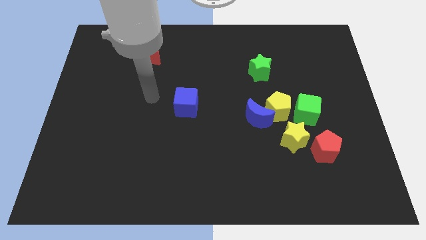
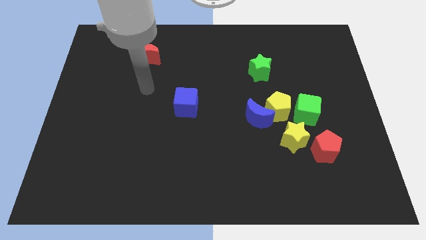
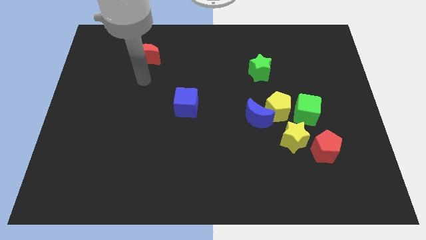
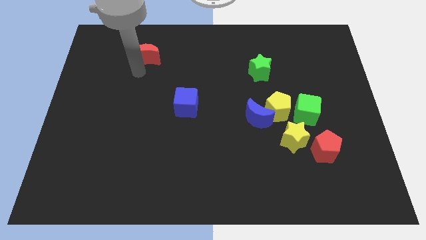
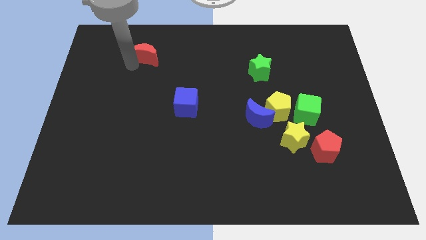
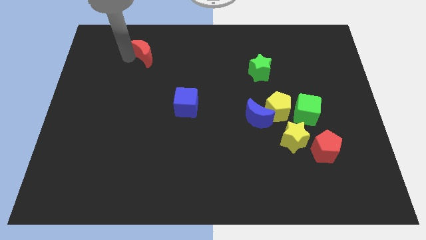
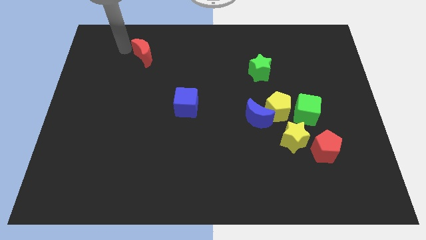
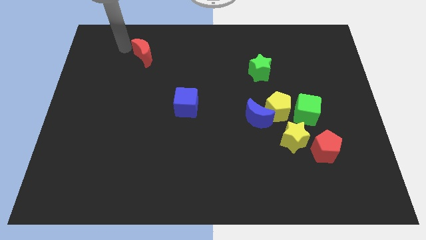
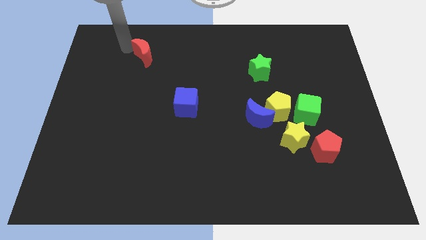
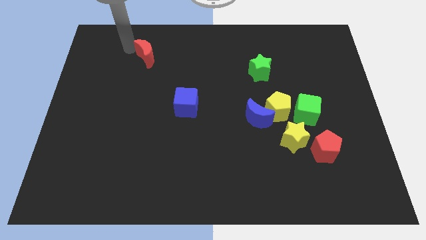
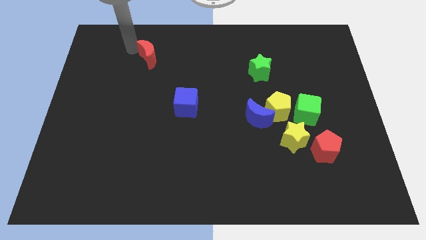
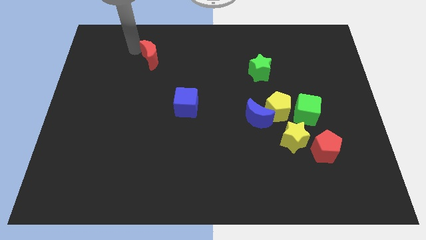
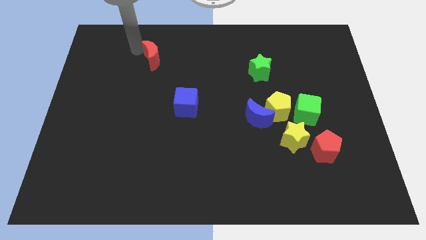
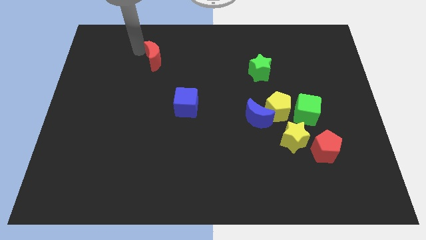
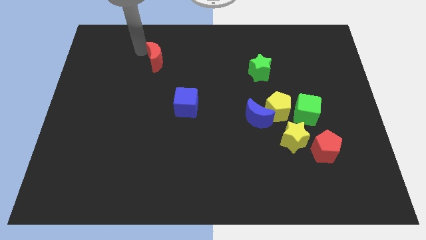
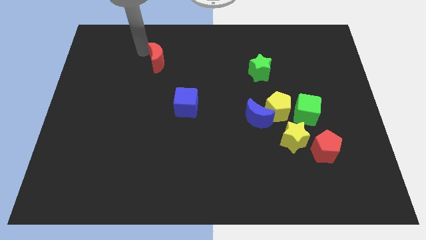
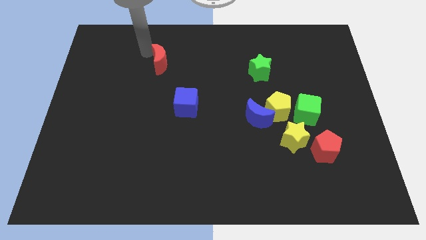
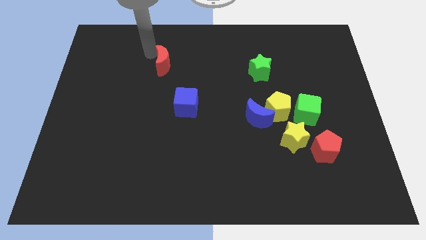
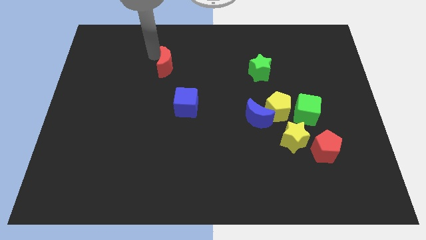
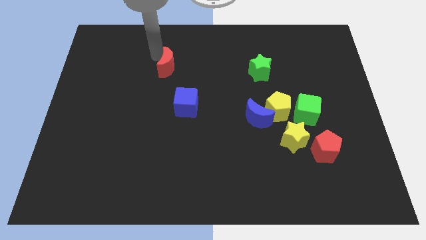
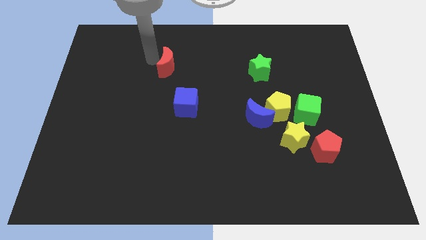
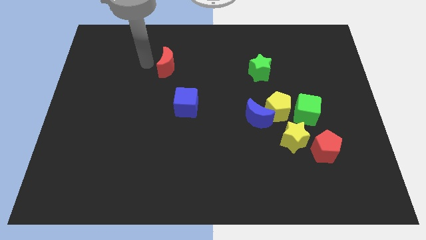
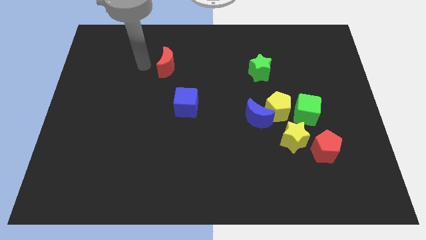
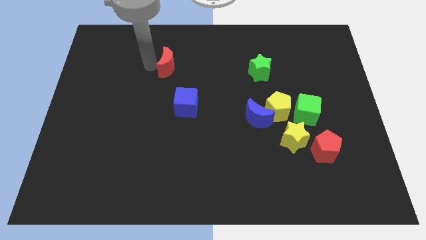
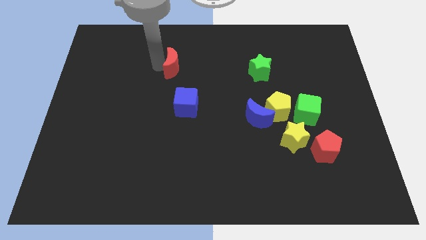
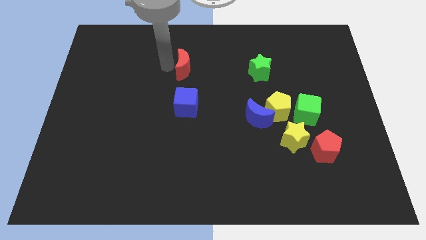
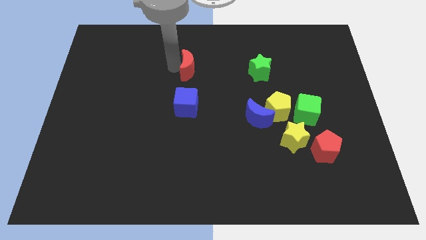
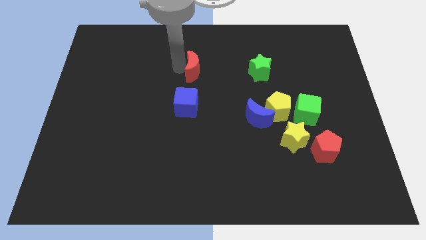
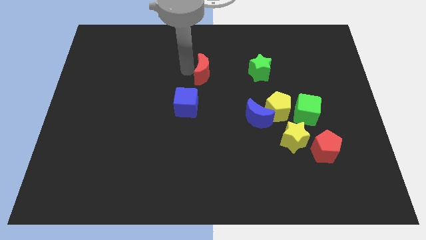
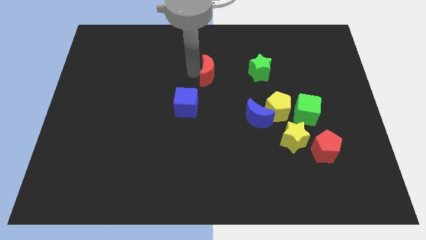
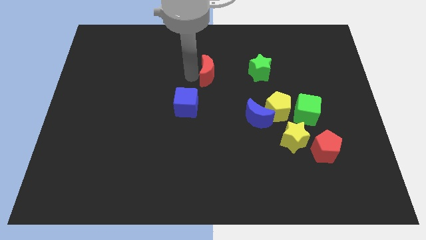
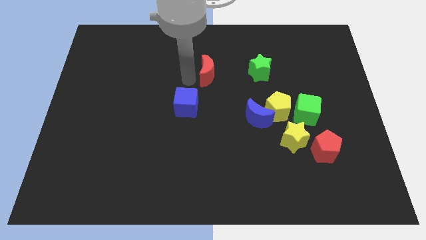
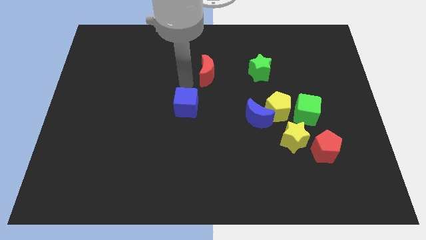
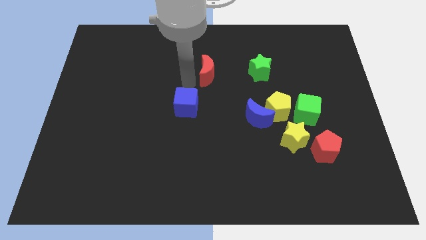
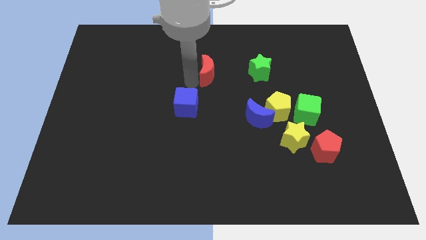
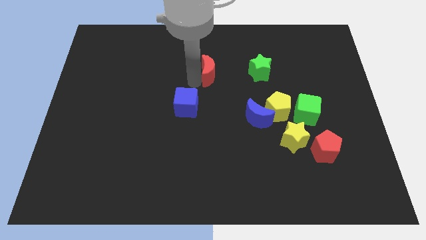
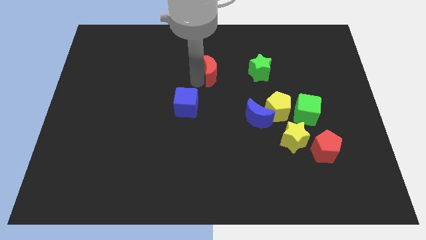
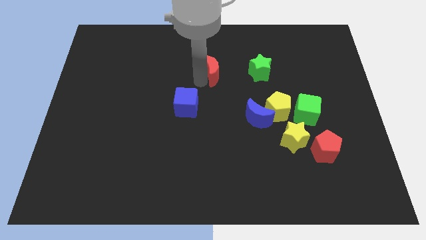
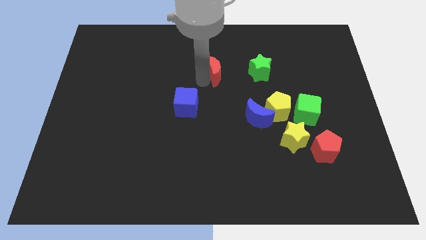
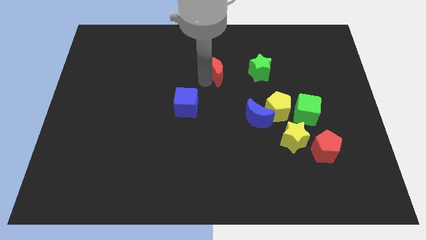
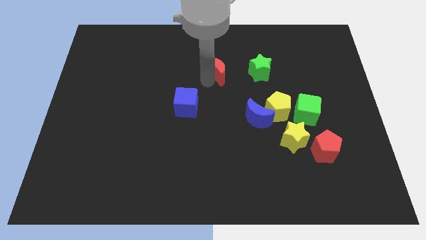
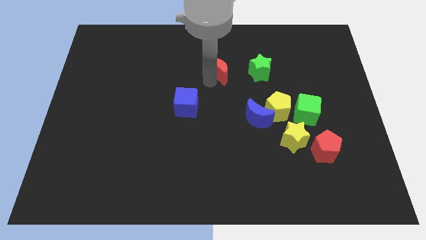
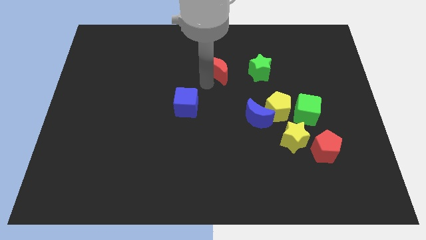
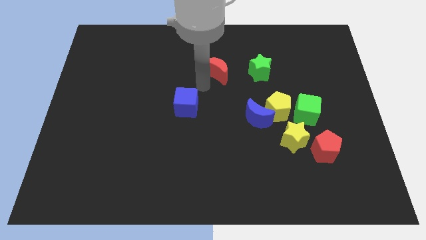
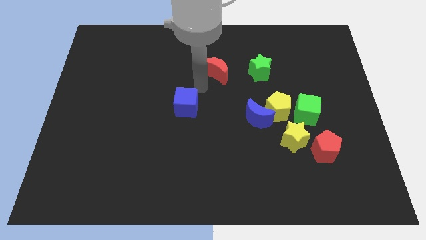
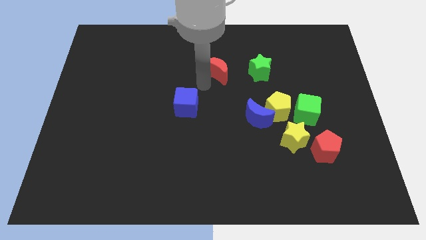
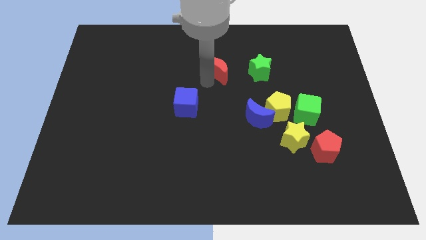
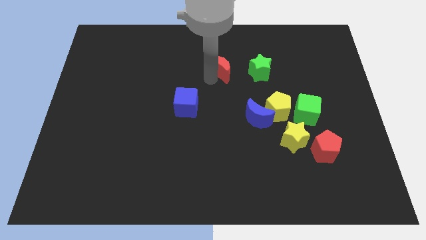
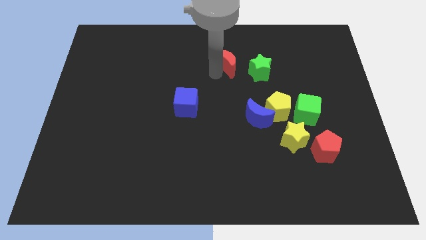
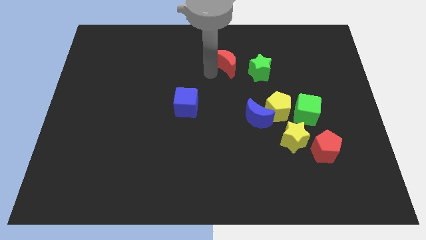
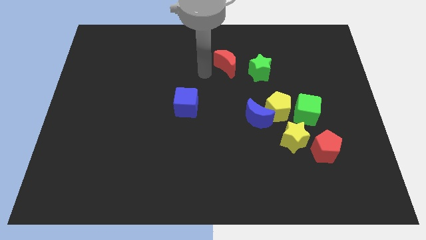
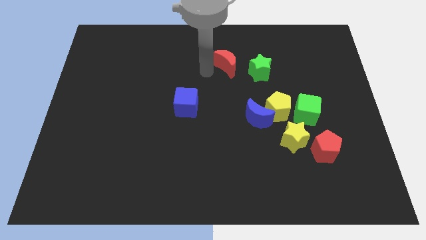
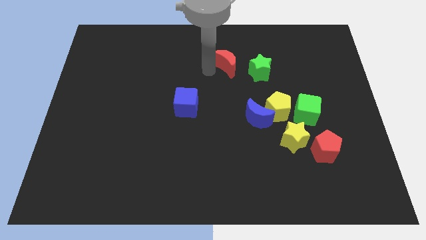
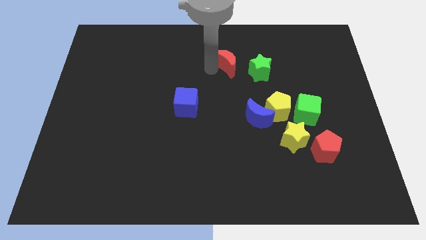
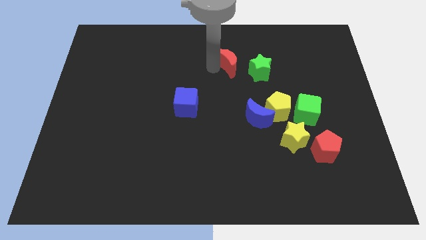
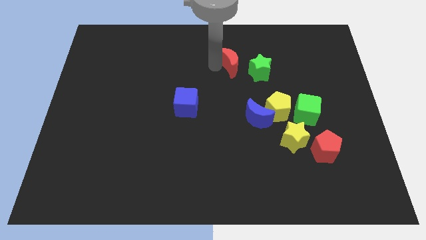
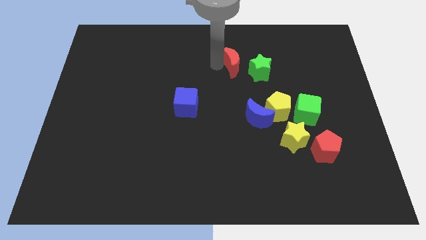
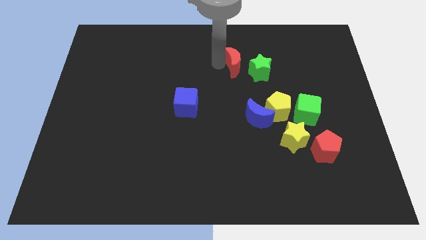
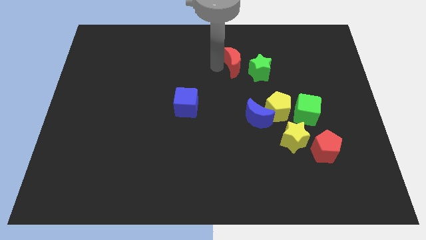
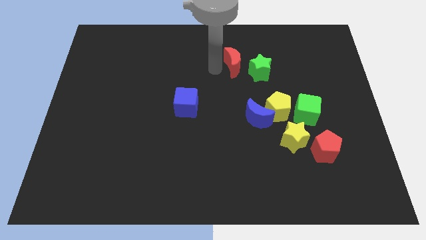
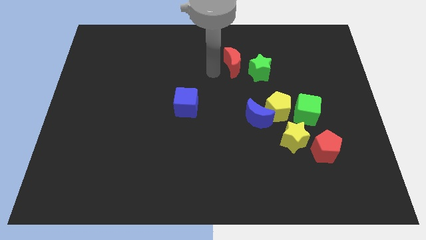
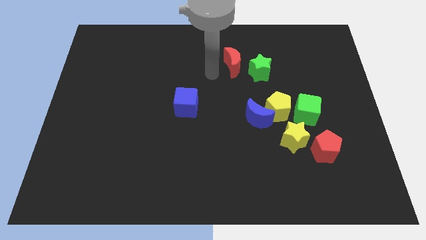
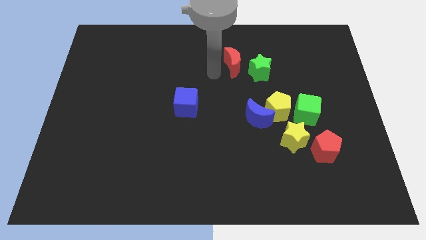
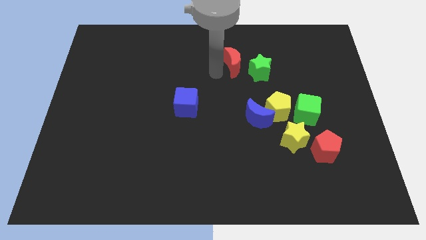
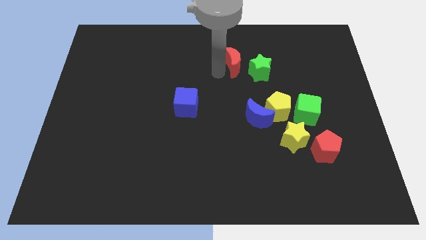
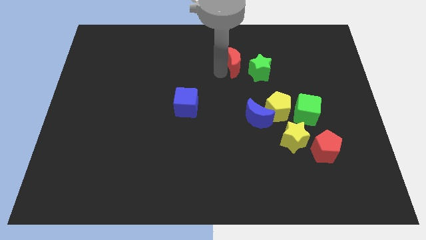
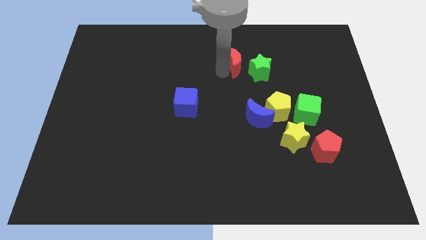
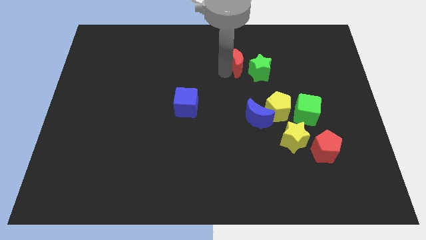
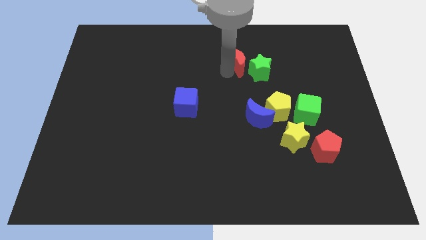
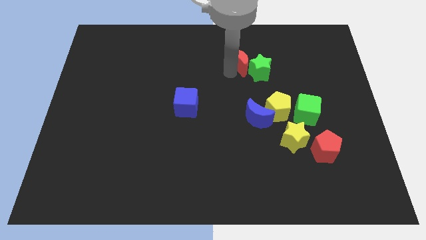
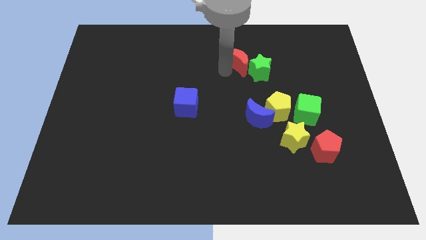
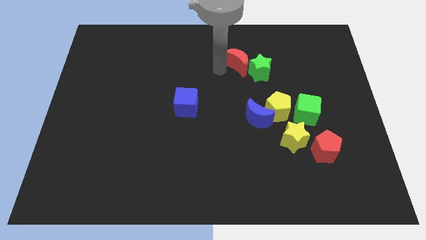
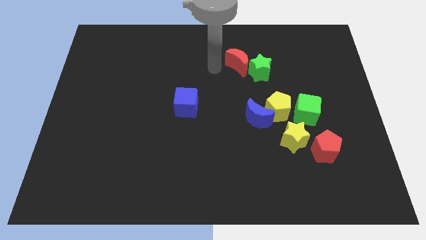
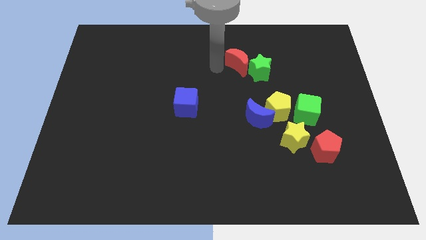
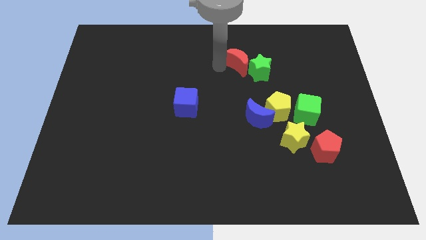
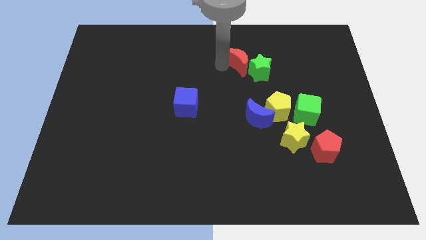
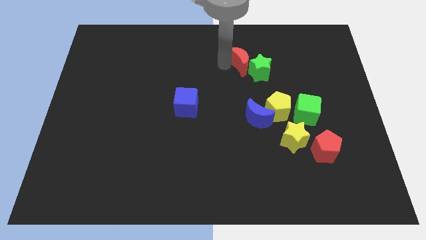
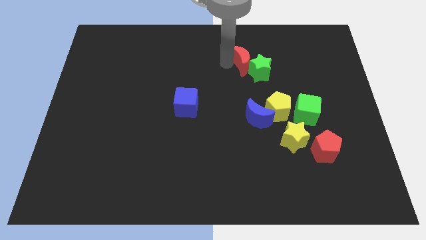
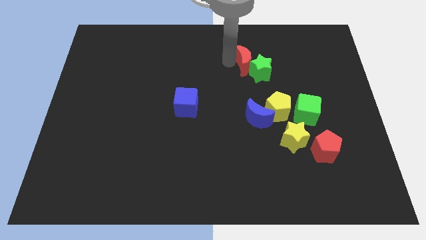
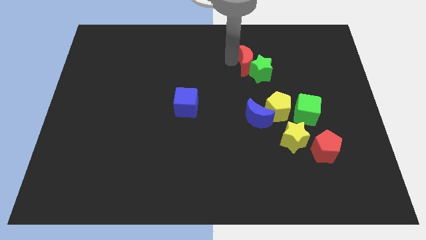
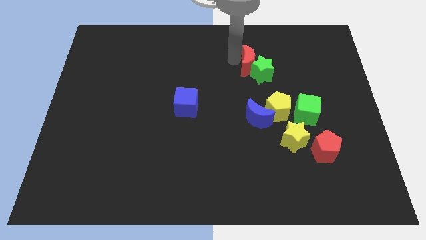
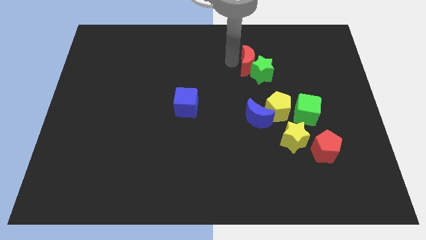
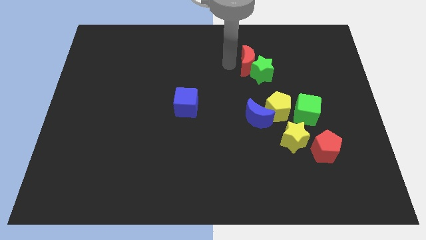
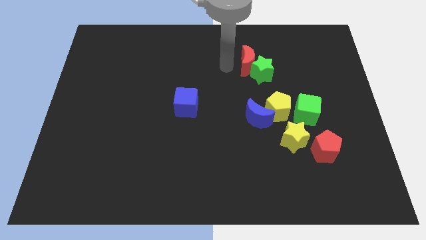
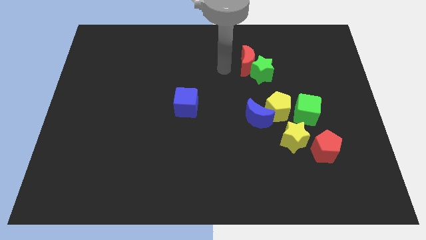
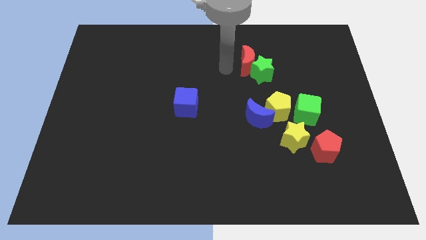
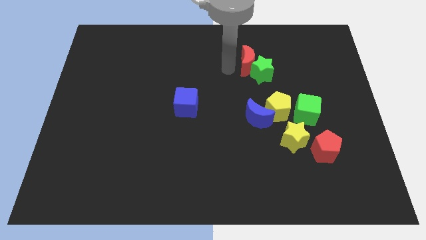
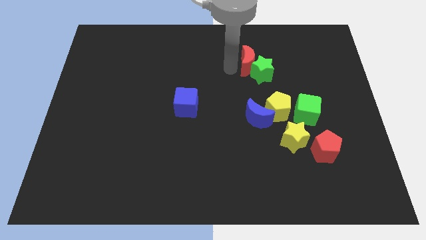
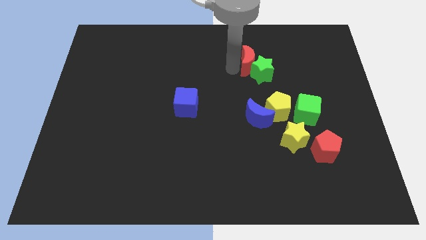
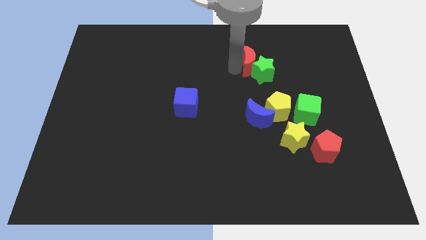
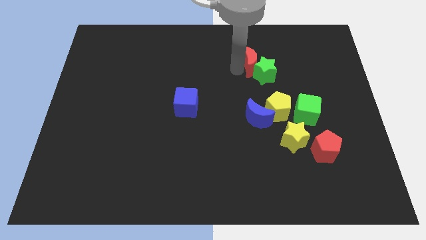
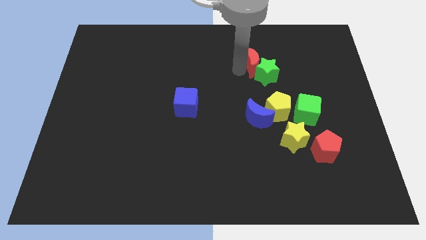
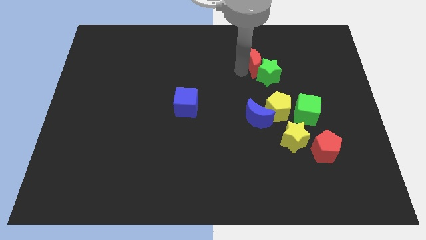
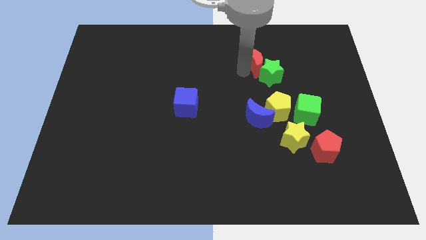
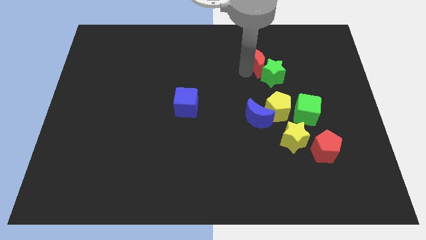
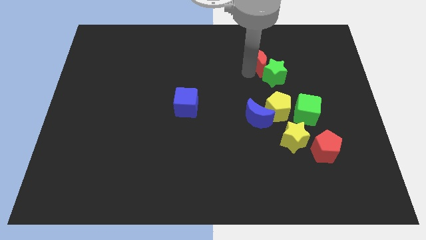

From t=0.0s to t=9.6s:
put the red moon above the yellow pentagon
